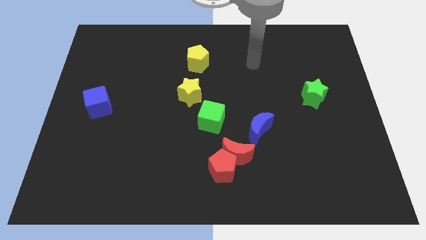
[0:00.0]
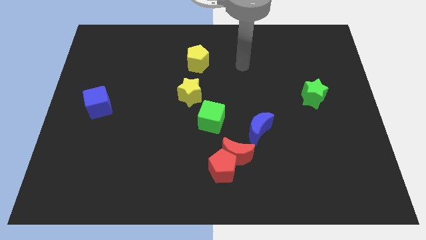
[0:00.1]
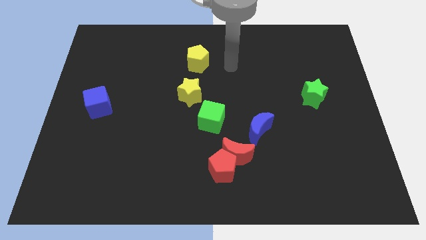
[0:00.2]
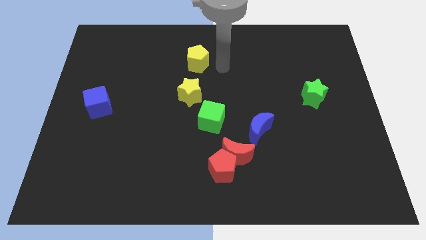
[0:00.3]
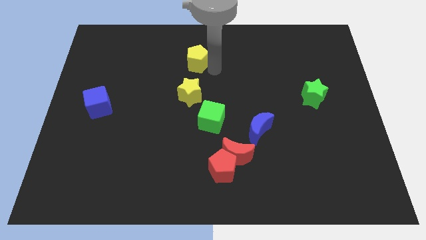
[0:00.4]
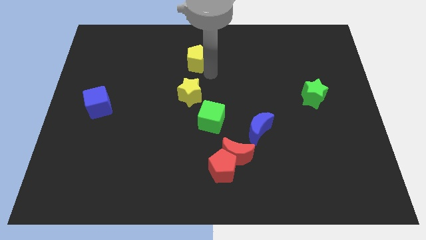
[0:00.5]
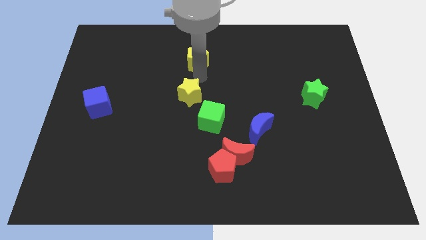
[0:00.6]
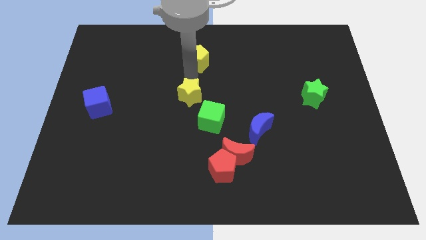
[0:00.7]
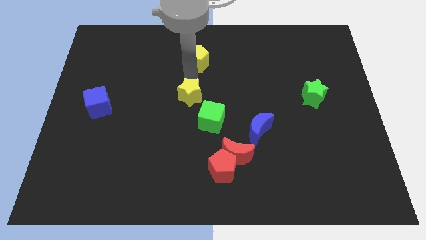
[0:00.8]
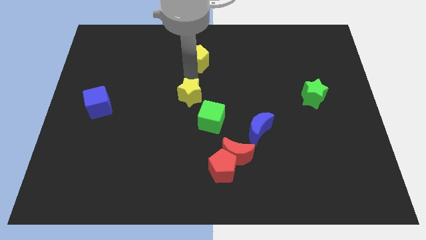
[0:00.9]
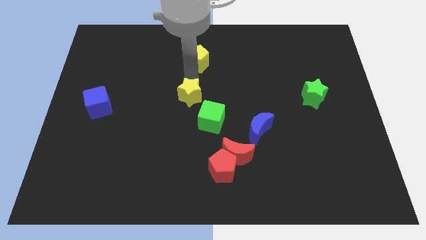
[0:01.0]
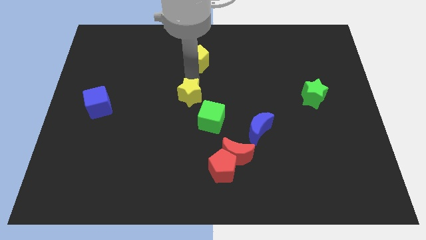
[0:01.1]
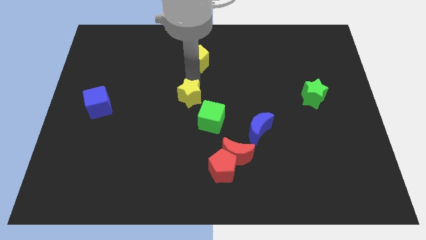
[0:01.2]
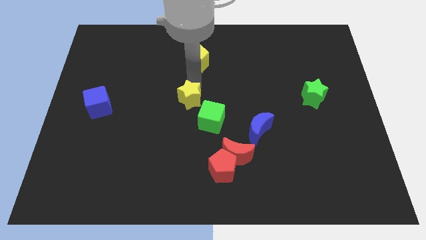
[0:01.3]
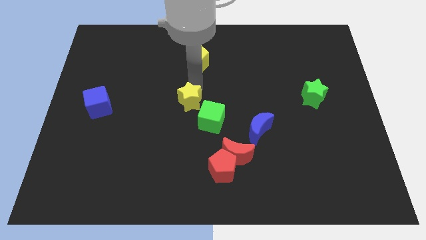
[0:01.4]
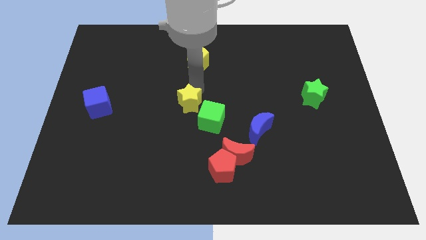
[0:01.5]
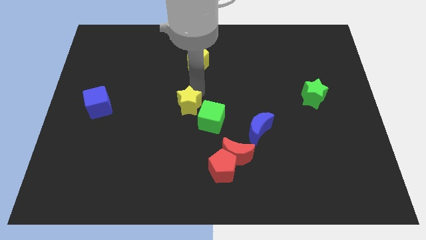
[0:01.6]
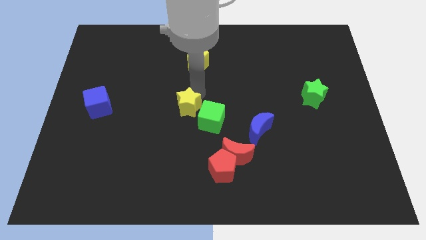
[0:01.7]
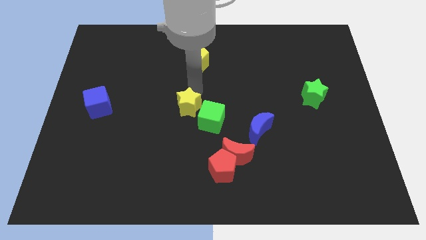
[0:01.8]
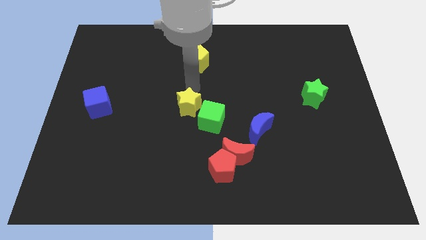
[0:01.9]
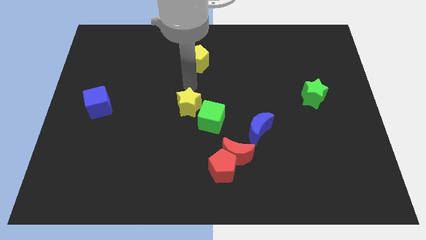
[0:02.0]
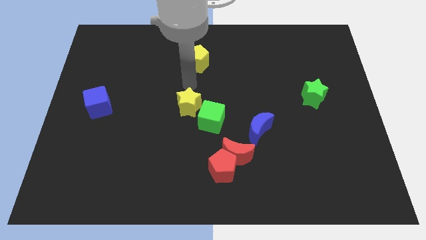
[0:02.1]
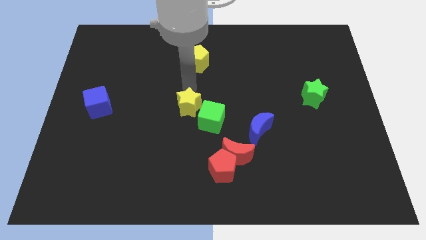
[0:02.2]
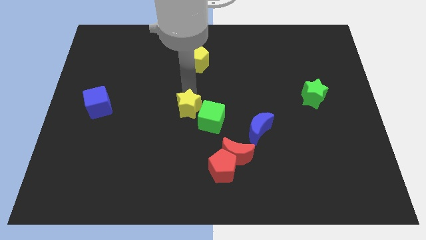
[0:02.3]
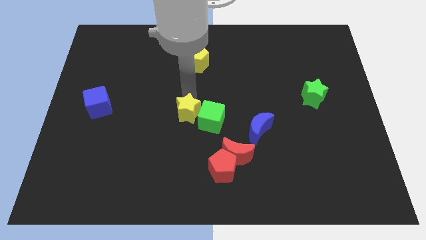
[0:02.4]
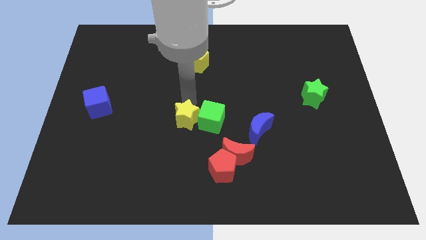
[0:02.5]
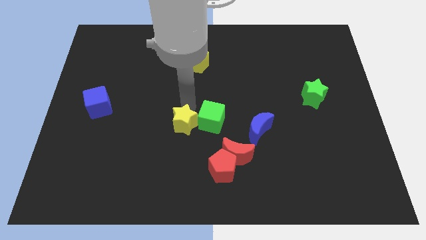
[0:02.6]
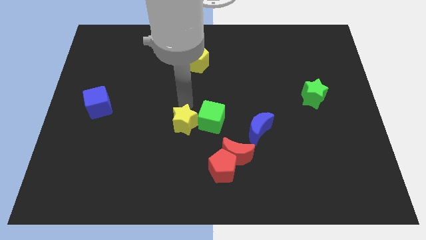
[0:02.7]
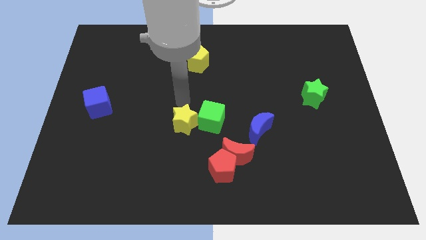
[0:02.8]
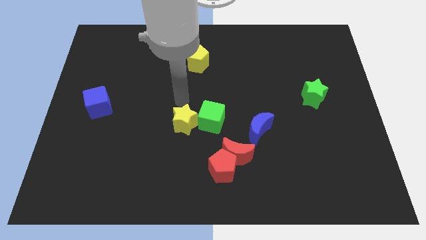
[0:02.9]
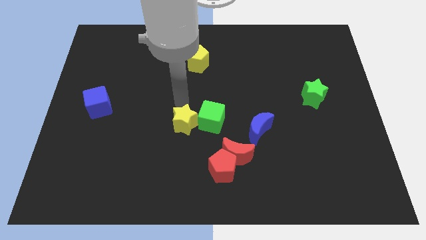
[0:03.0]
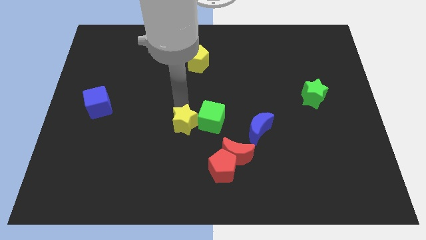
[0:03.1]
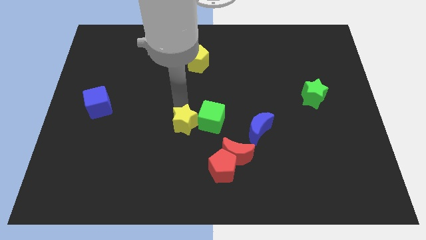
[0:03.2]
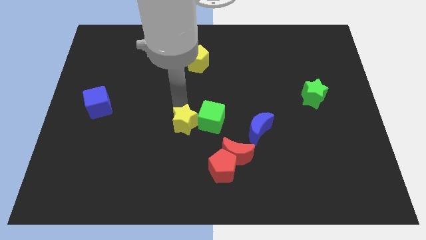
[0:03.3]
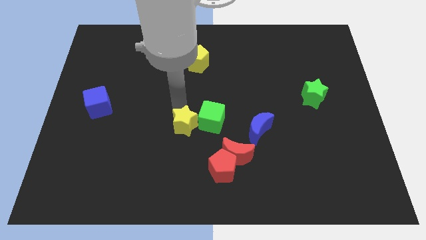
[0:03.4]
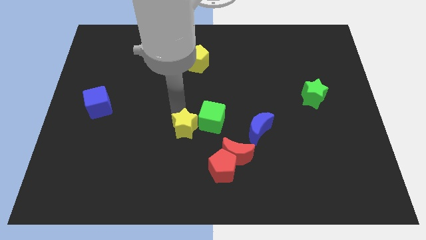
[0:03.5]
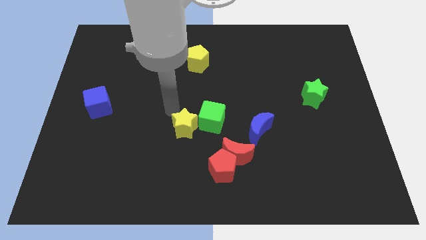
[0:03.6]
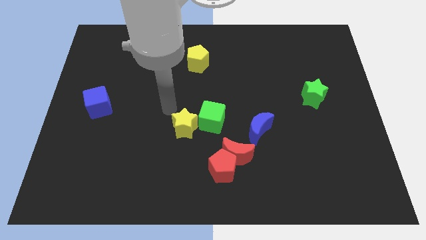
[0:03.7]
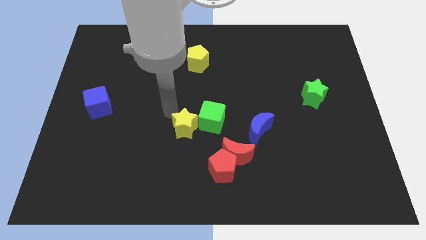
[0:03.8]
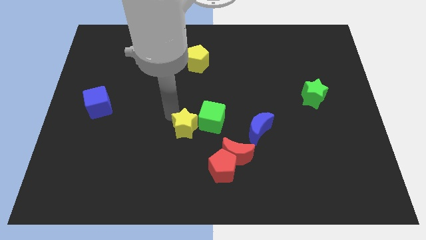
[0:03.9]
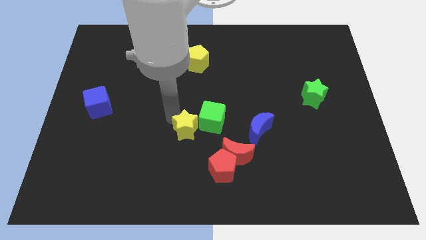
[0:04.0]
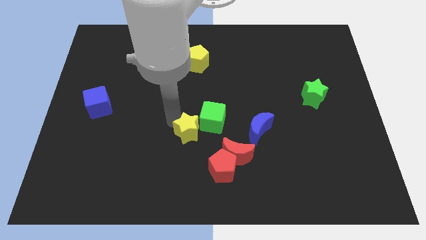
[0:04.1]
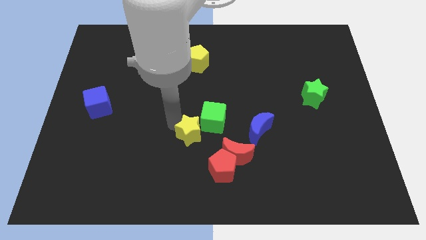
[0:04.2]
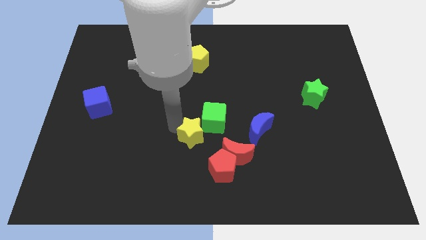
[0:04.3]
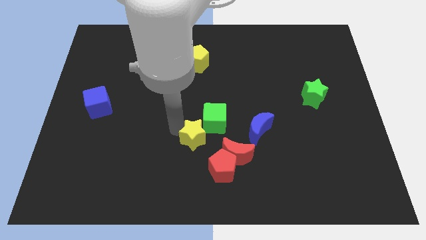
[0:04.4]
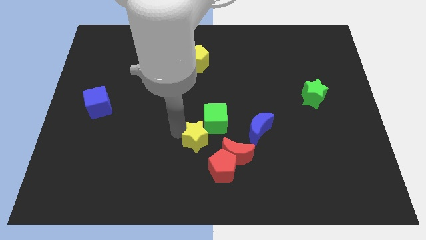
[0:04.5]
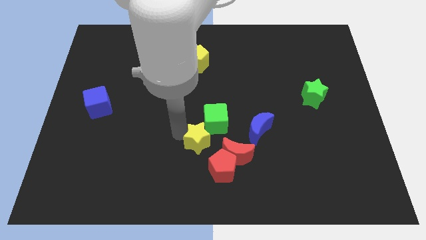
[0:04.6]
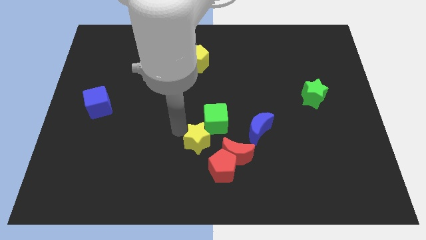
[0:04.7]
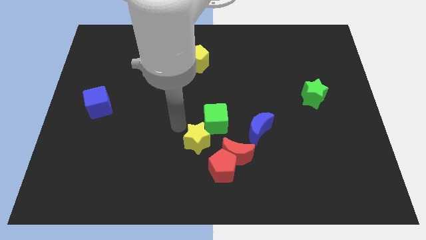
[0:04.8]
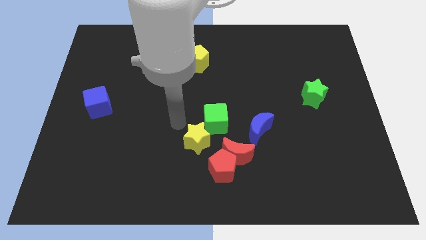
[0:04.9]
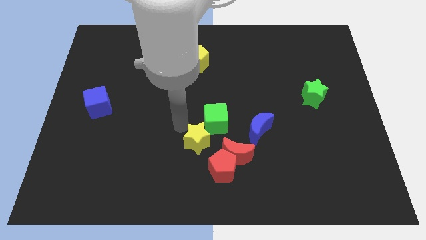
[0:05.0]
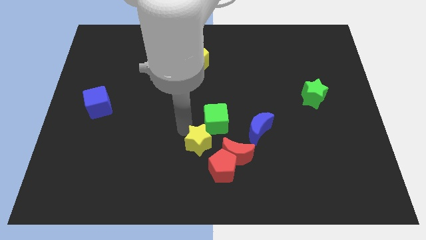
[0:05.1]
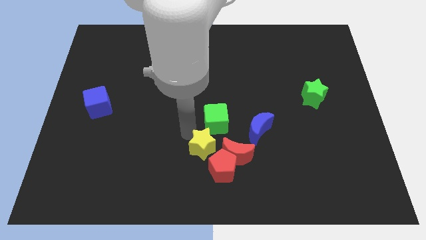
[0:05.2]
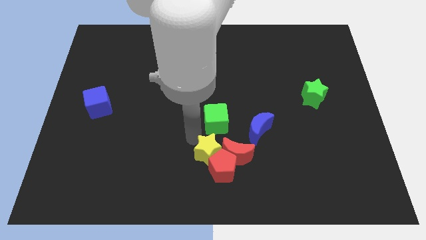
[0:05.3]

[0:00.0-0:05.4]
push the yellow star towards the red pentagon

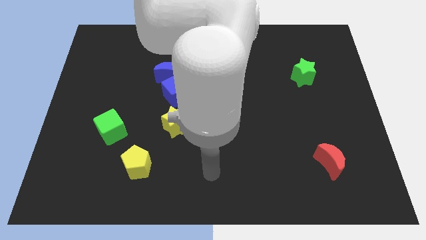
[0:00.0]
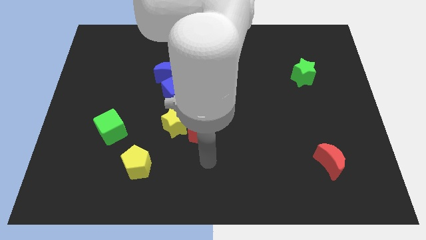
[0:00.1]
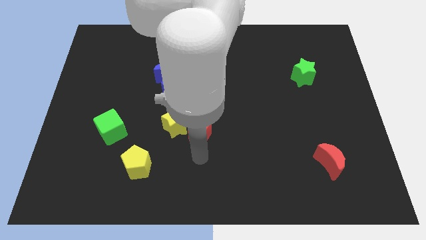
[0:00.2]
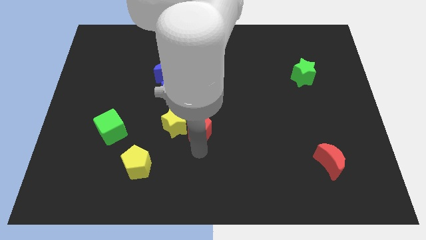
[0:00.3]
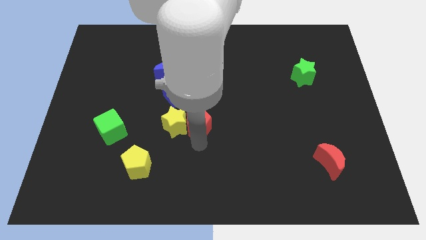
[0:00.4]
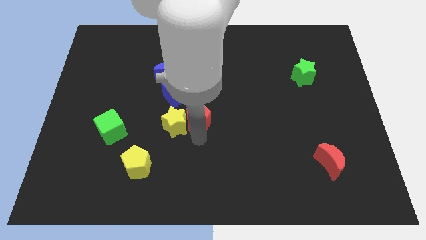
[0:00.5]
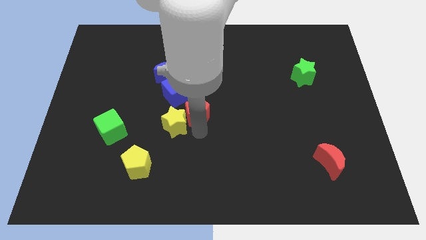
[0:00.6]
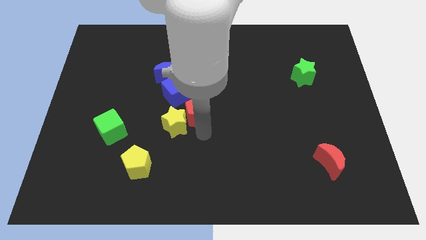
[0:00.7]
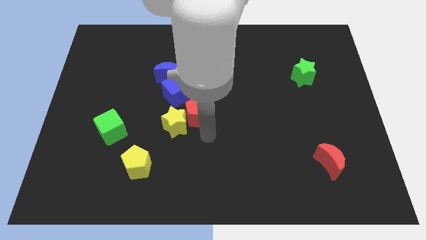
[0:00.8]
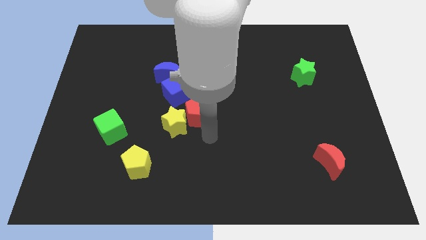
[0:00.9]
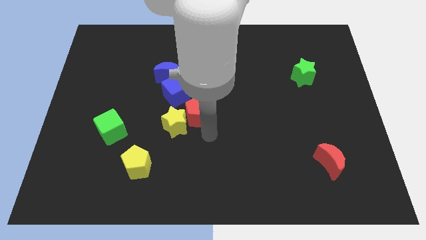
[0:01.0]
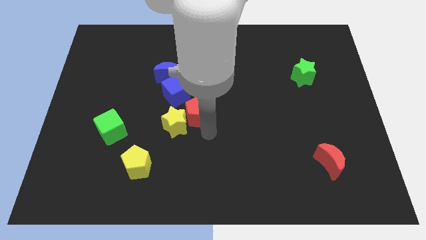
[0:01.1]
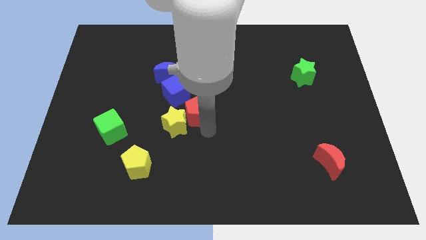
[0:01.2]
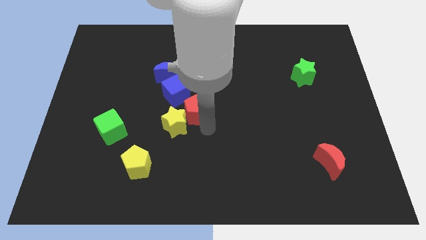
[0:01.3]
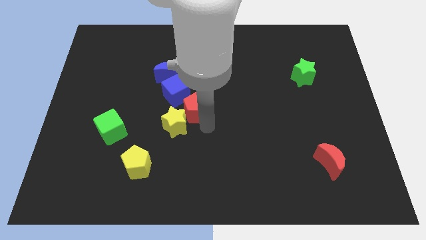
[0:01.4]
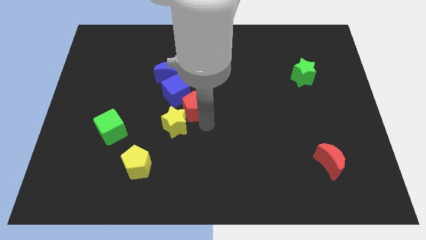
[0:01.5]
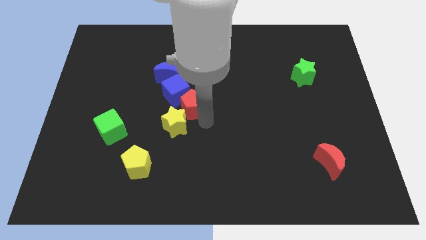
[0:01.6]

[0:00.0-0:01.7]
slide the red pentagon to the blue cube
